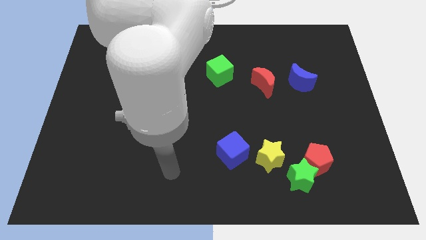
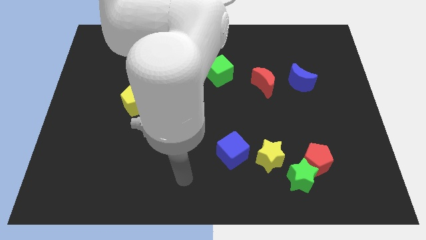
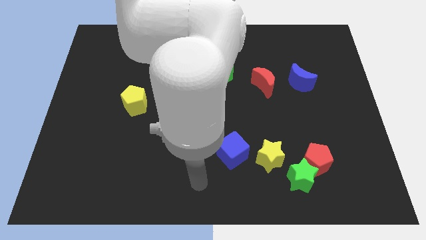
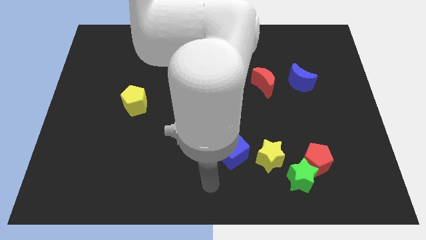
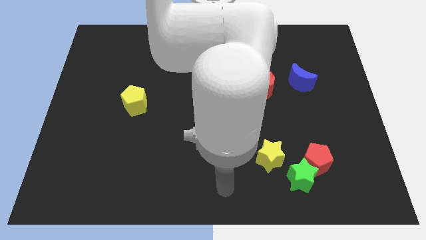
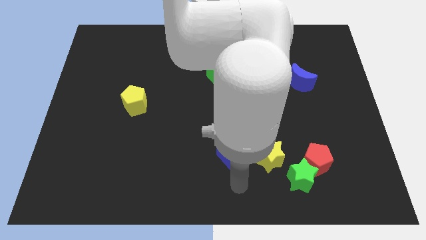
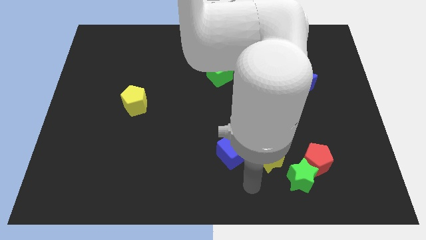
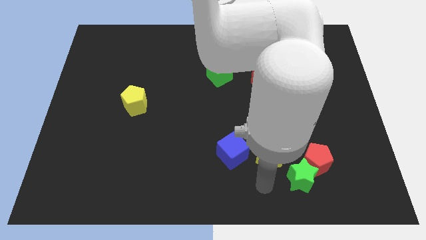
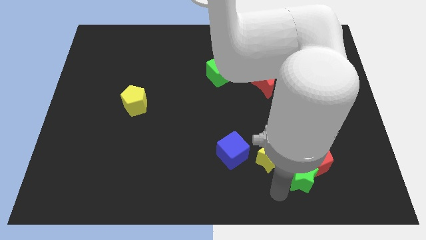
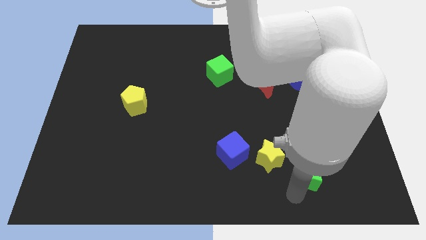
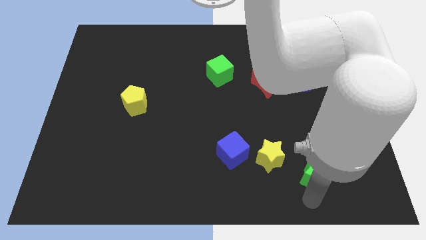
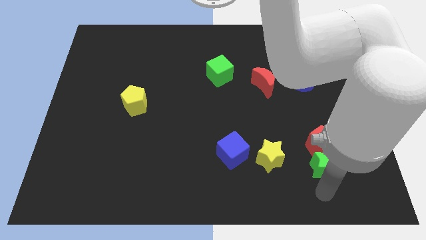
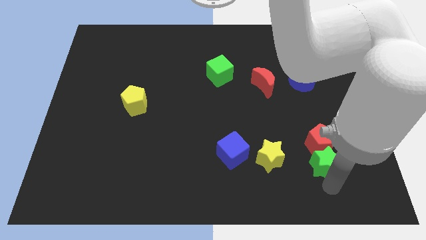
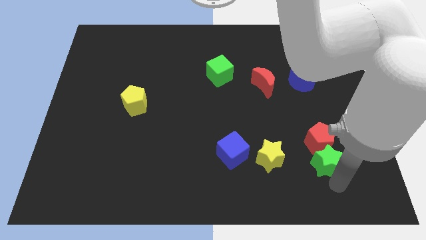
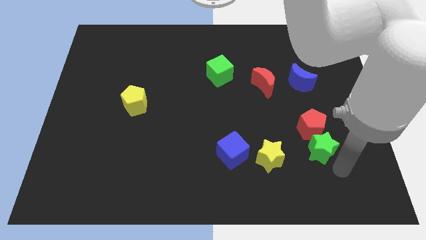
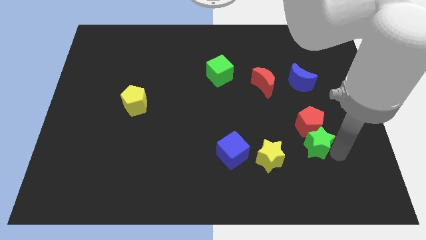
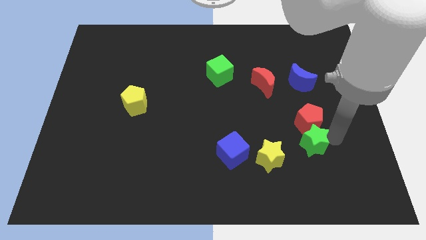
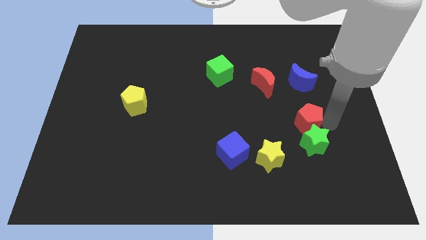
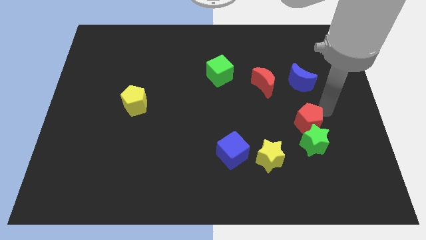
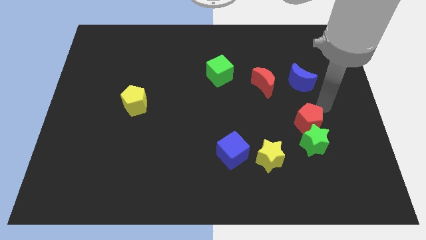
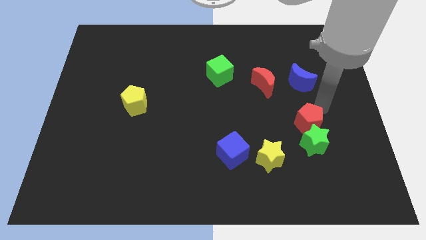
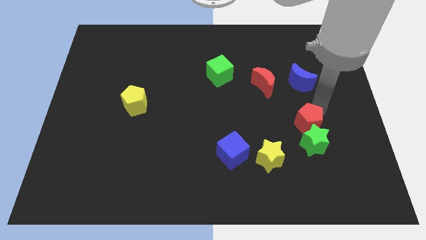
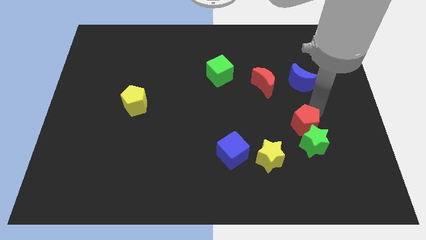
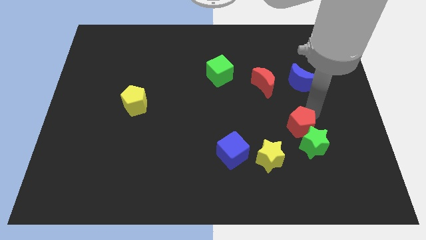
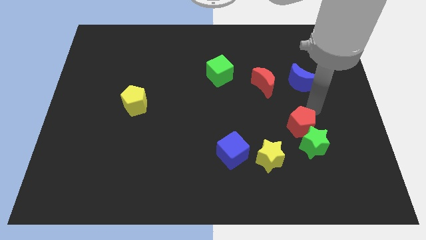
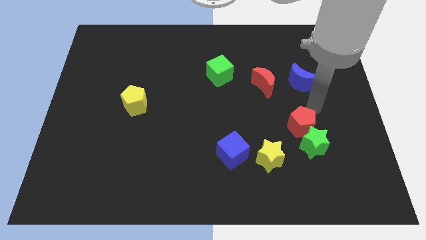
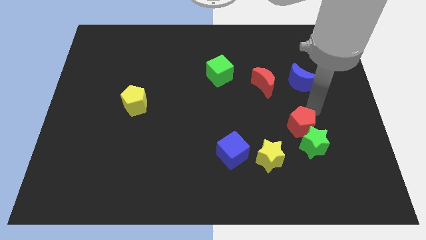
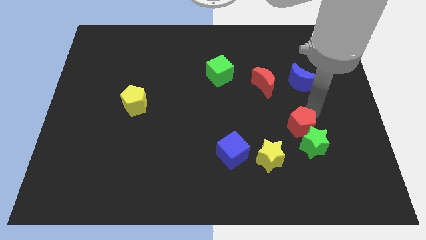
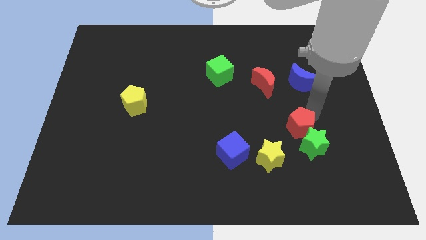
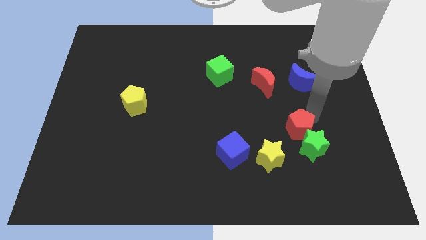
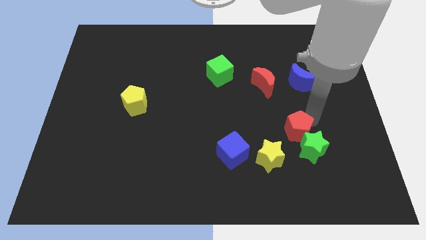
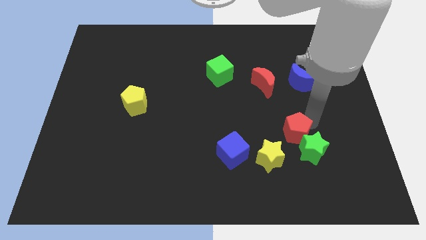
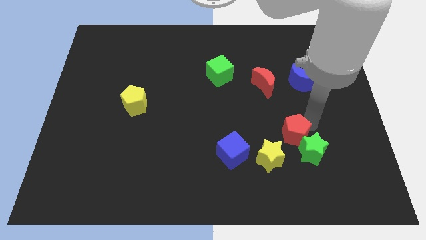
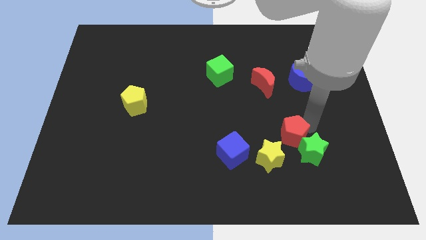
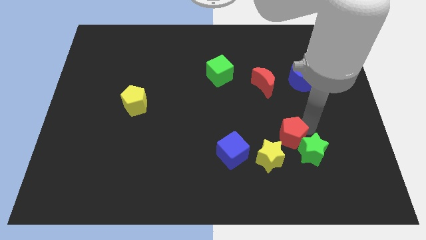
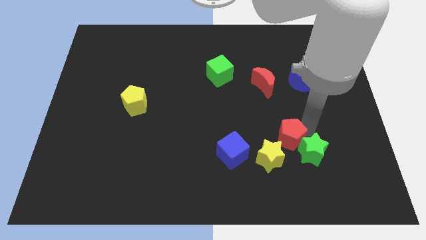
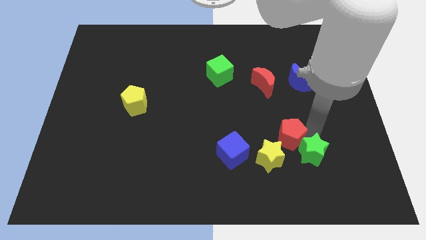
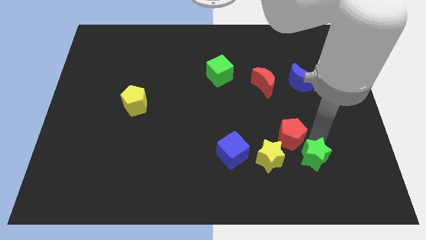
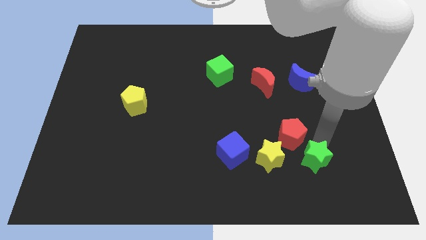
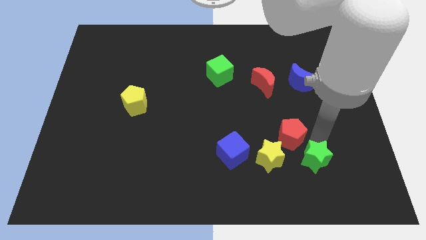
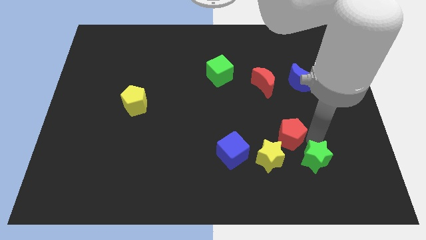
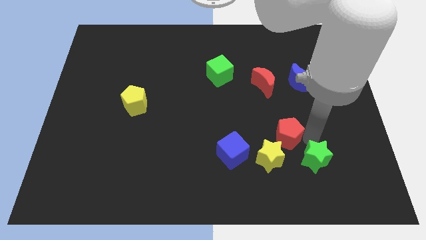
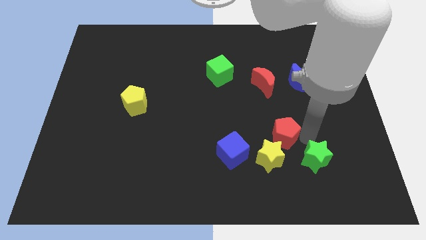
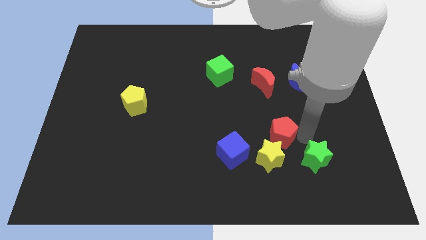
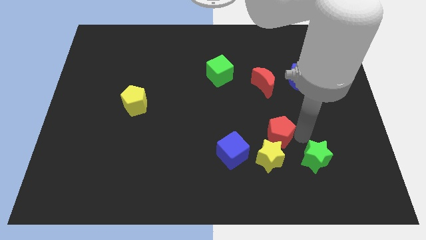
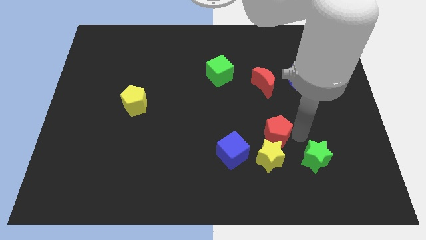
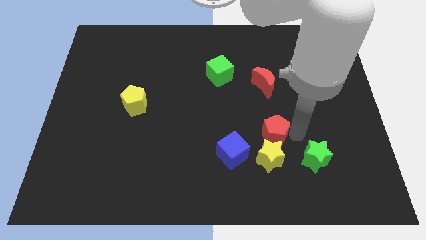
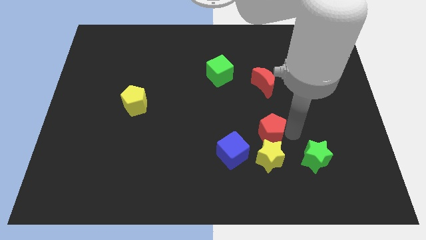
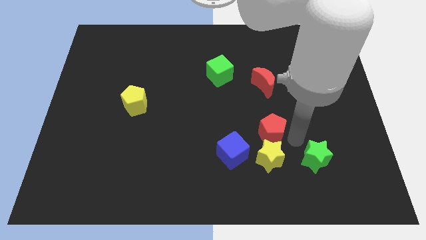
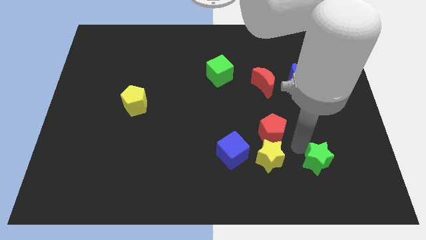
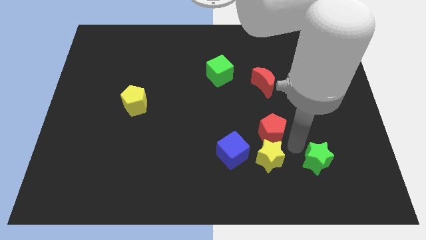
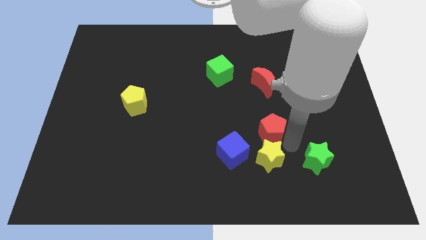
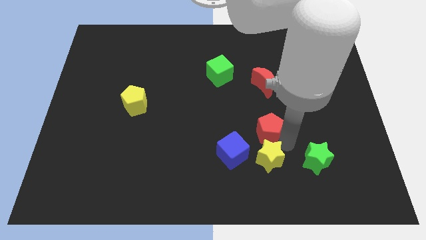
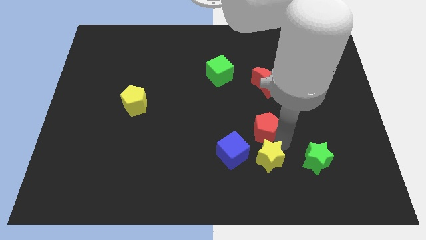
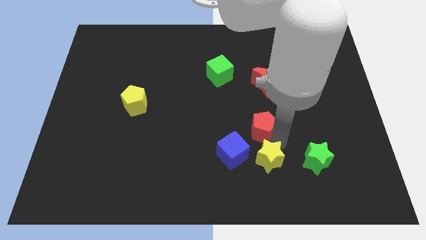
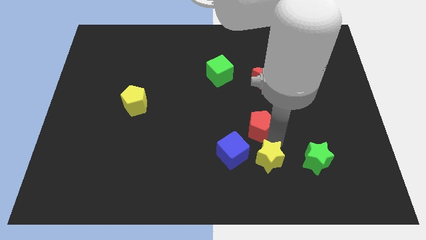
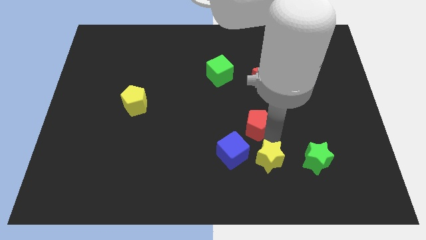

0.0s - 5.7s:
push the red pentagon to the center of the board

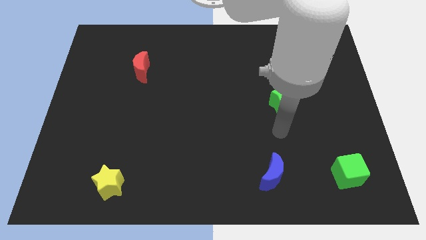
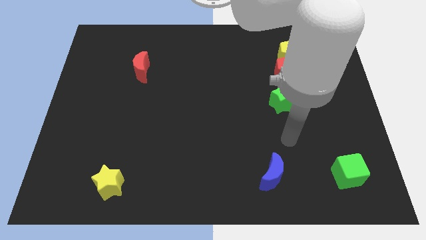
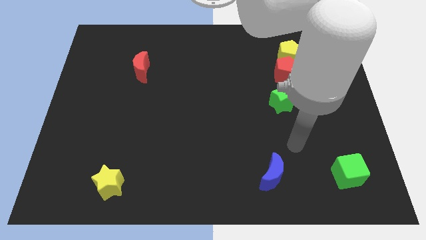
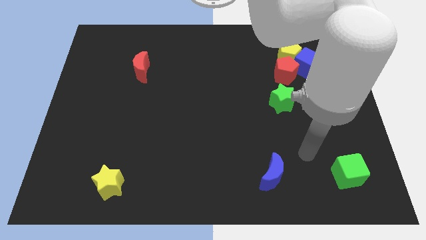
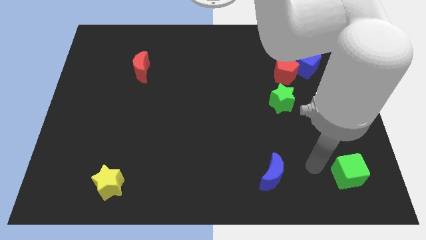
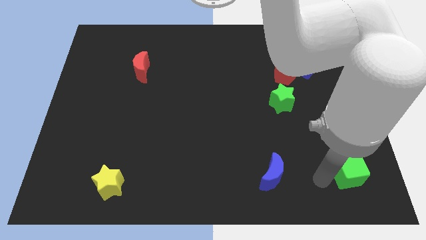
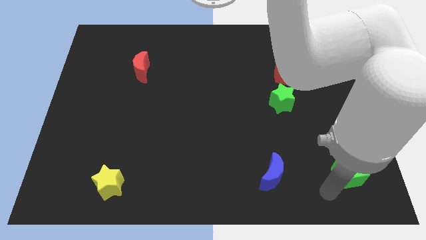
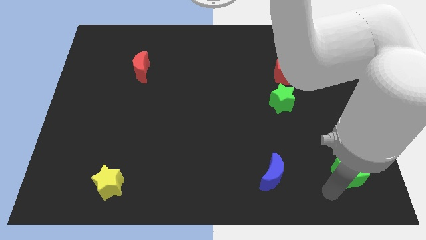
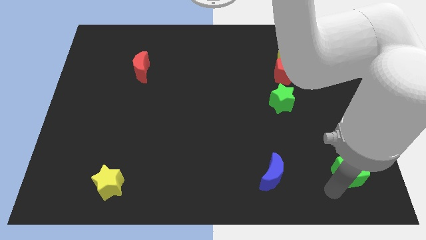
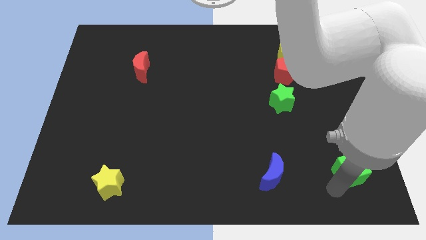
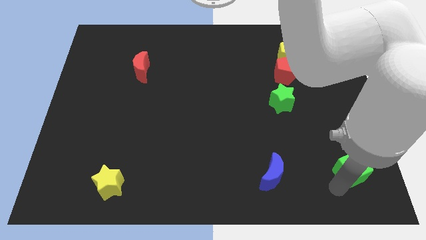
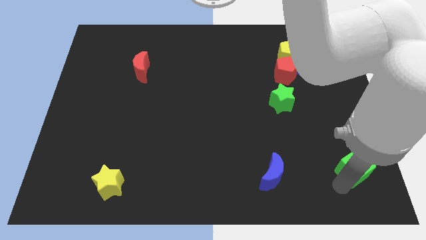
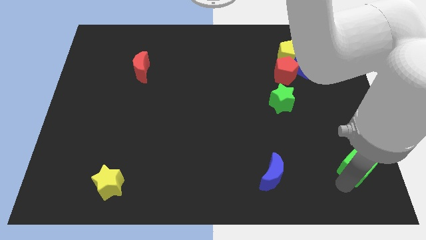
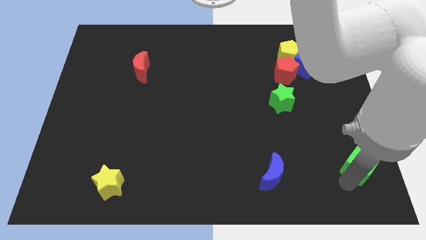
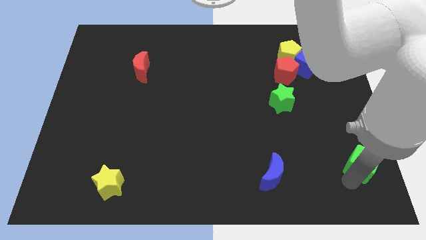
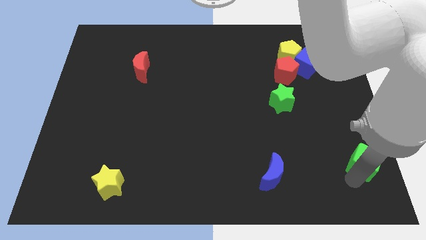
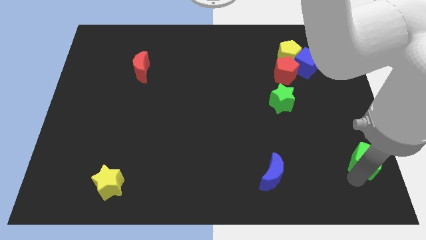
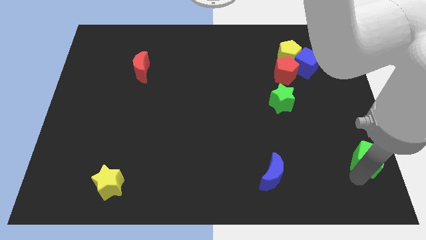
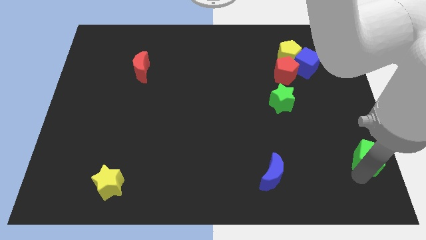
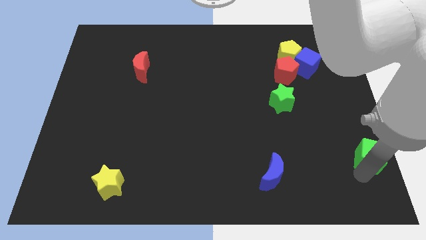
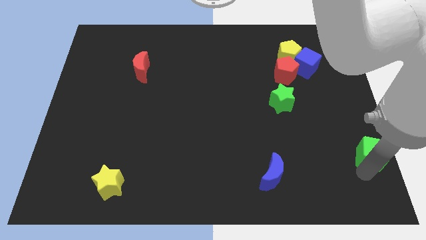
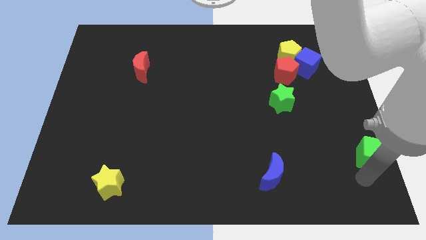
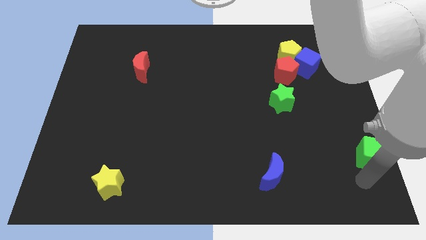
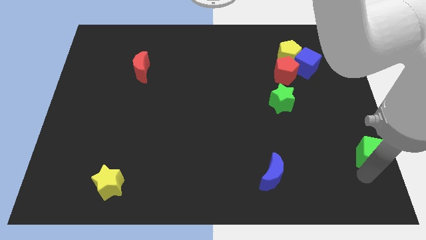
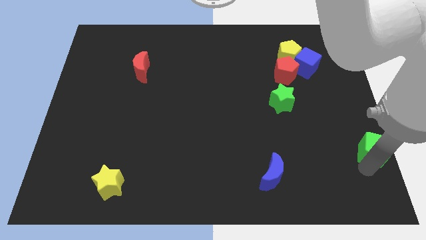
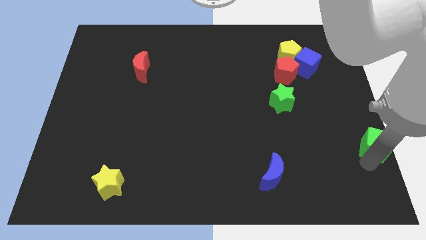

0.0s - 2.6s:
move the green cube to the right side
